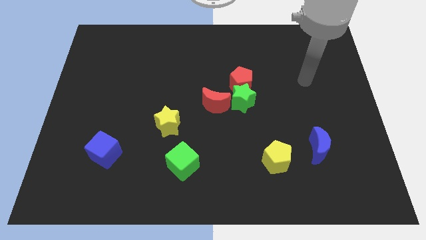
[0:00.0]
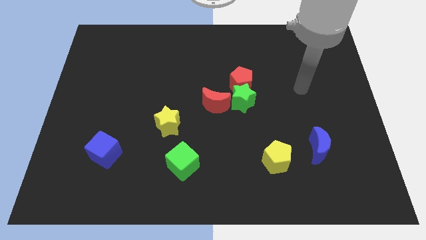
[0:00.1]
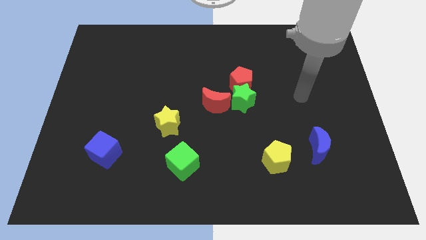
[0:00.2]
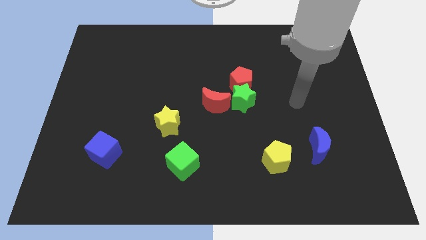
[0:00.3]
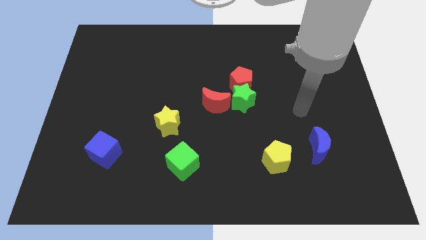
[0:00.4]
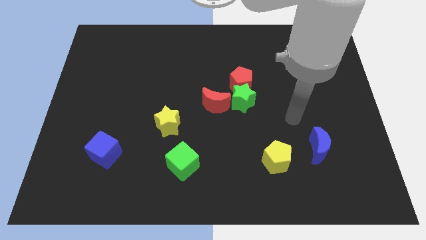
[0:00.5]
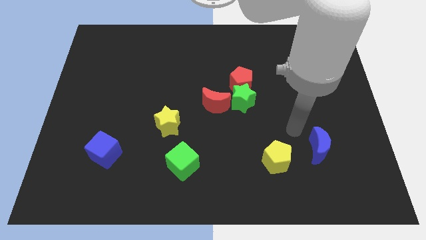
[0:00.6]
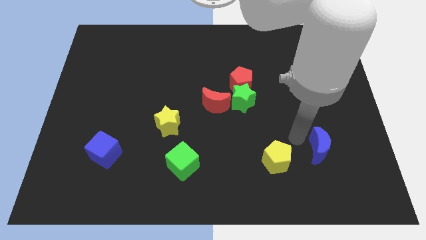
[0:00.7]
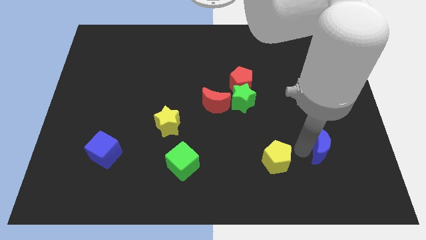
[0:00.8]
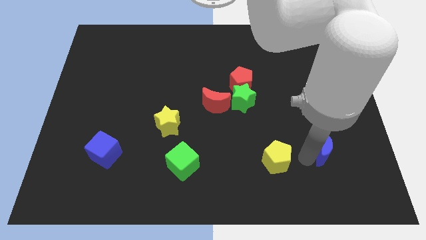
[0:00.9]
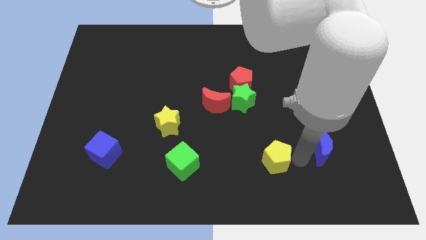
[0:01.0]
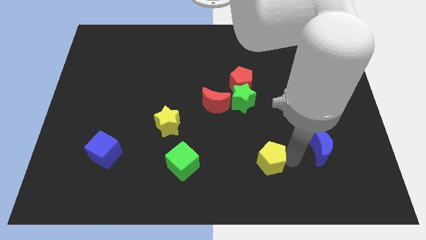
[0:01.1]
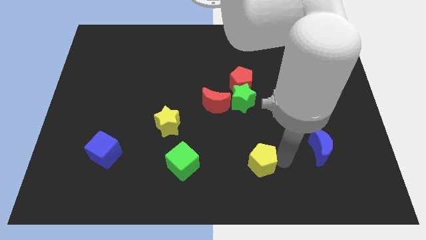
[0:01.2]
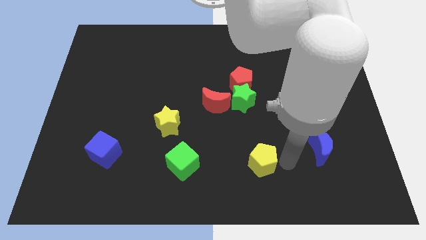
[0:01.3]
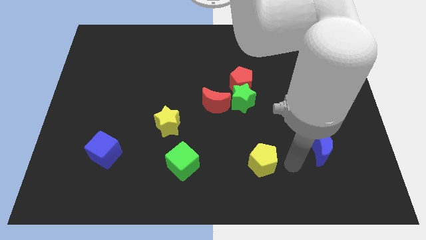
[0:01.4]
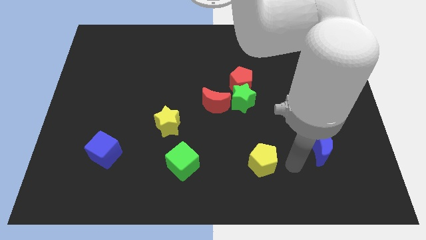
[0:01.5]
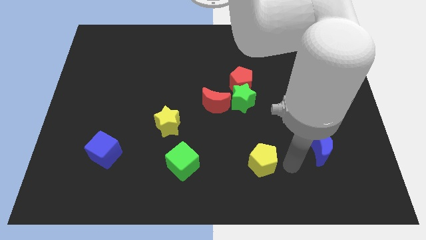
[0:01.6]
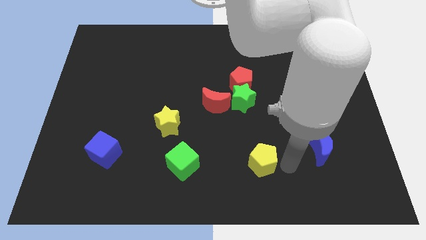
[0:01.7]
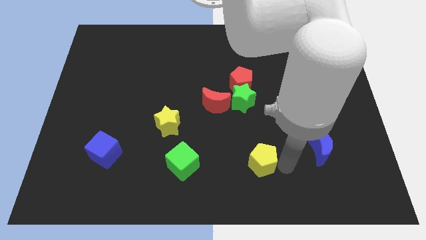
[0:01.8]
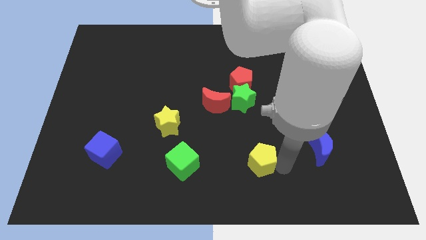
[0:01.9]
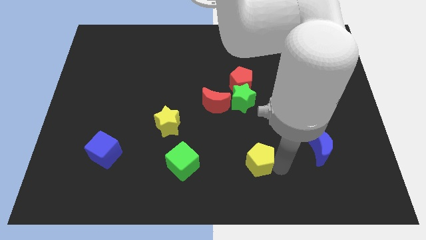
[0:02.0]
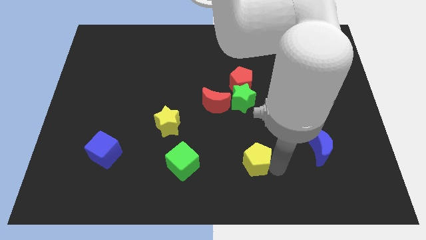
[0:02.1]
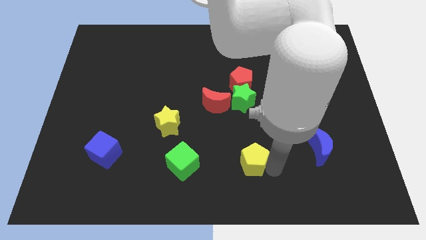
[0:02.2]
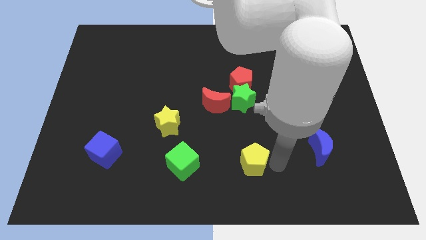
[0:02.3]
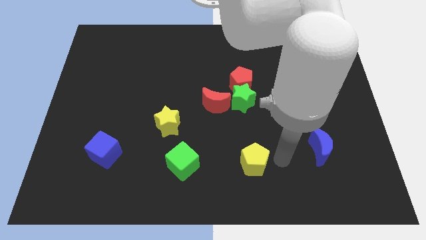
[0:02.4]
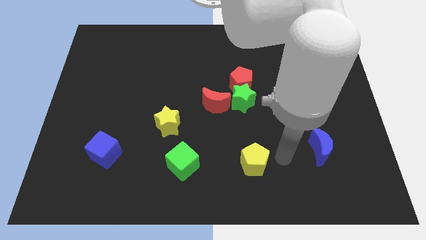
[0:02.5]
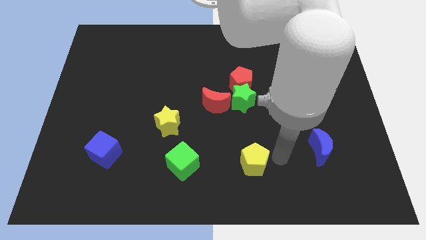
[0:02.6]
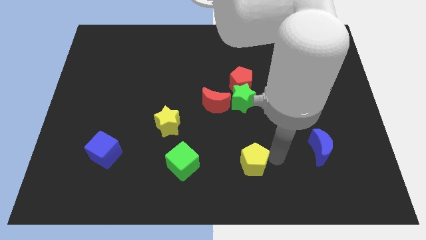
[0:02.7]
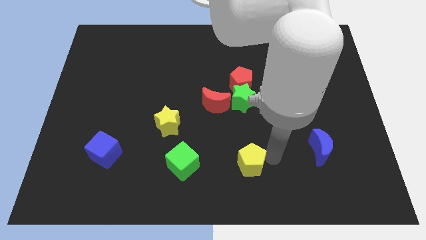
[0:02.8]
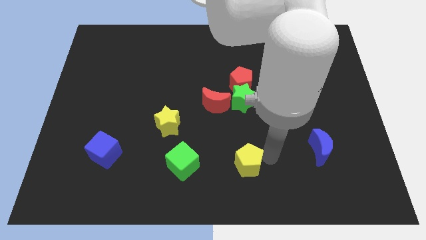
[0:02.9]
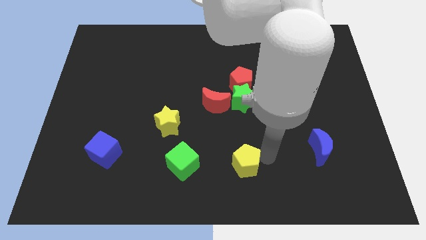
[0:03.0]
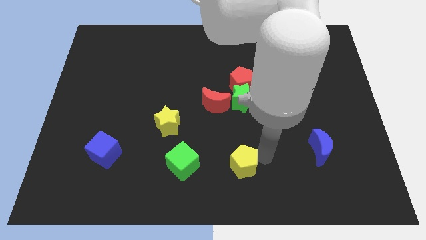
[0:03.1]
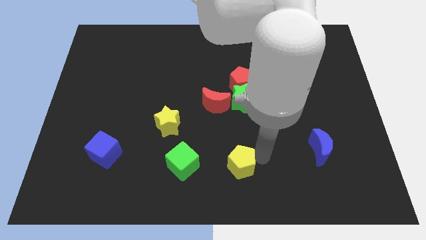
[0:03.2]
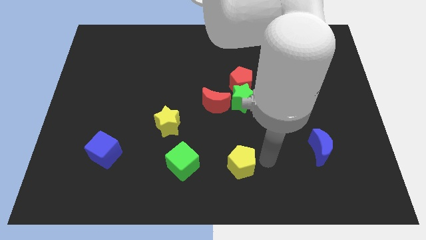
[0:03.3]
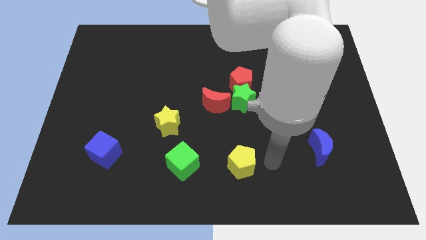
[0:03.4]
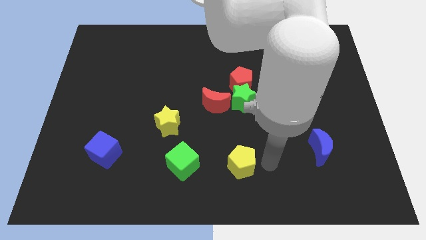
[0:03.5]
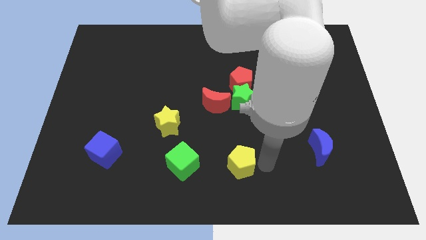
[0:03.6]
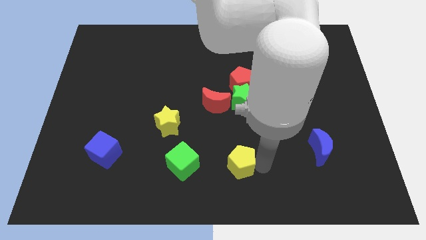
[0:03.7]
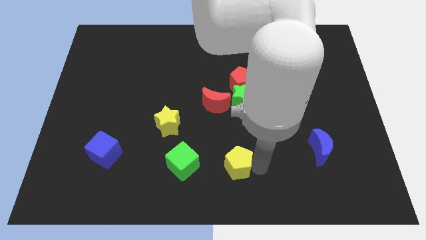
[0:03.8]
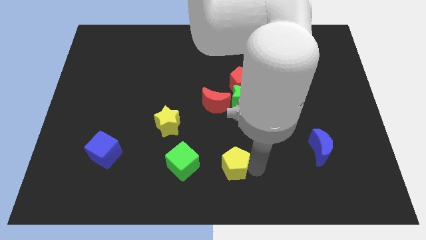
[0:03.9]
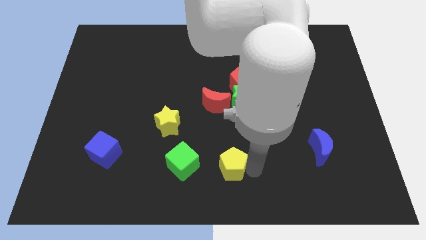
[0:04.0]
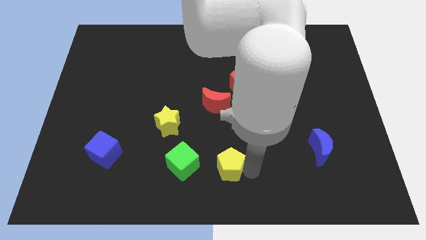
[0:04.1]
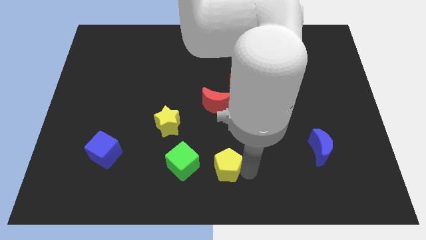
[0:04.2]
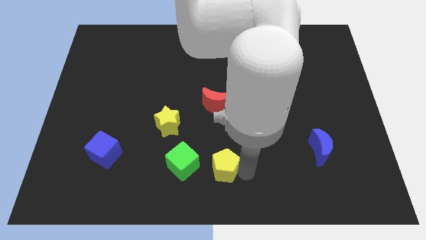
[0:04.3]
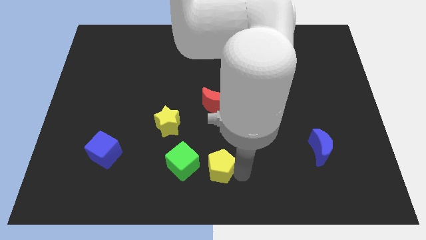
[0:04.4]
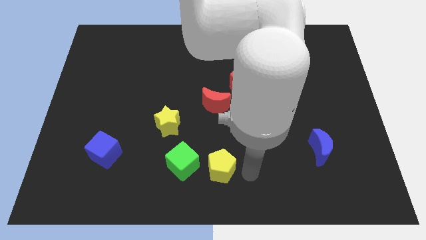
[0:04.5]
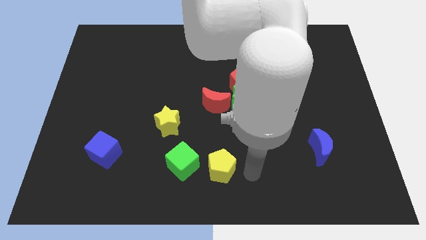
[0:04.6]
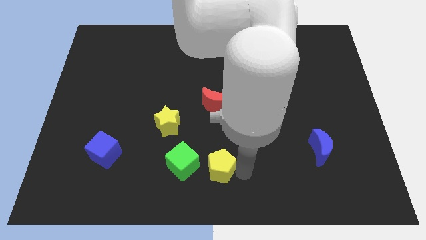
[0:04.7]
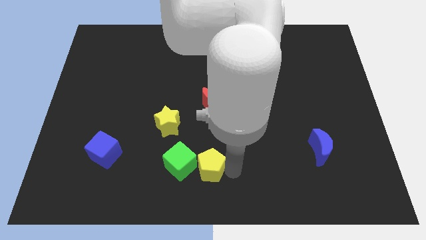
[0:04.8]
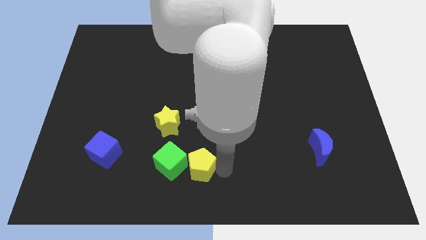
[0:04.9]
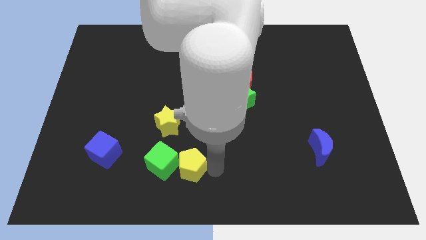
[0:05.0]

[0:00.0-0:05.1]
put the yellow pentagon next to the green cube

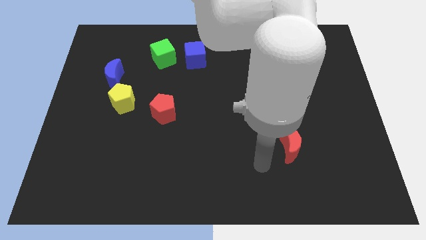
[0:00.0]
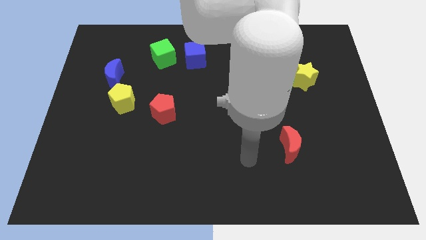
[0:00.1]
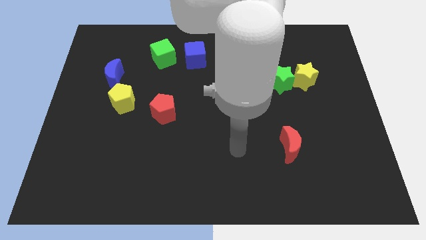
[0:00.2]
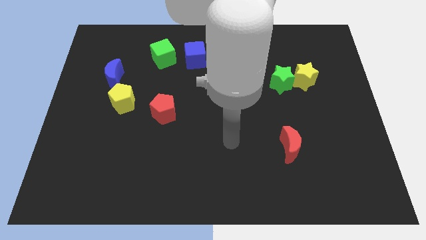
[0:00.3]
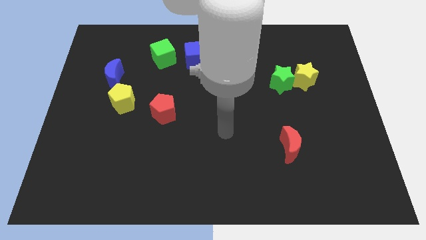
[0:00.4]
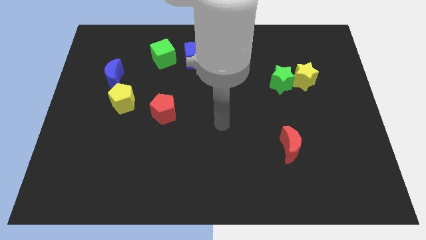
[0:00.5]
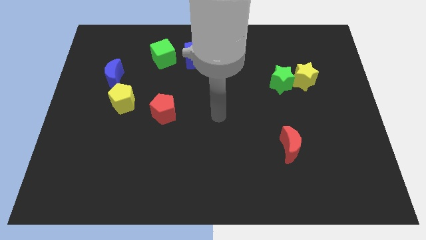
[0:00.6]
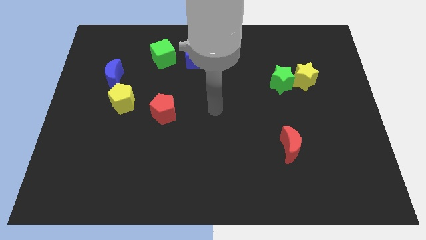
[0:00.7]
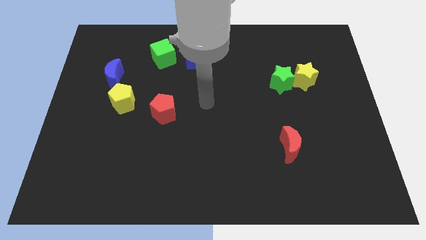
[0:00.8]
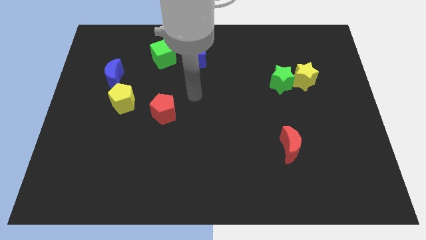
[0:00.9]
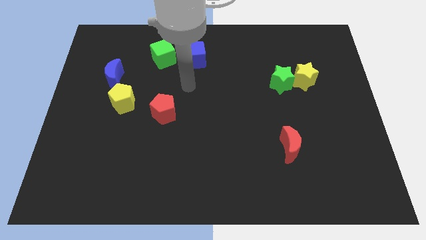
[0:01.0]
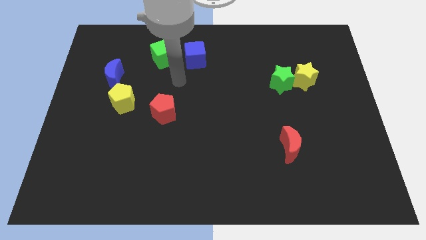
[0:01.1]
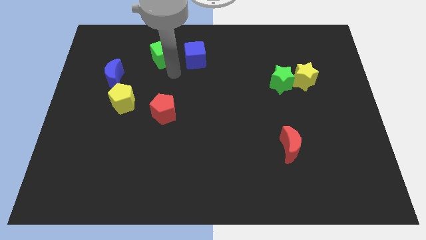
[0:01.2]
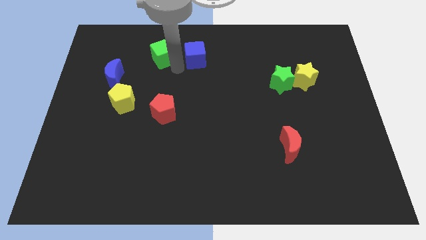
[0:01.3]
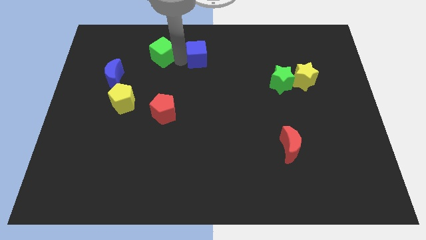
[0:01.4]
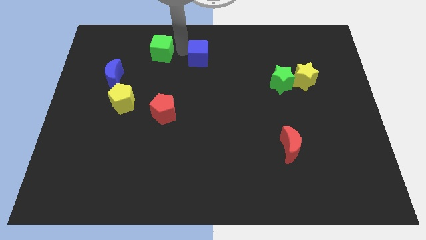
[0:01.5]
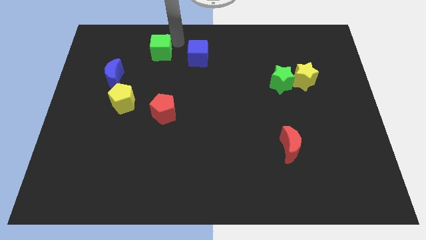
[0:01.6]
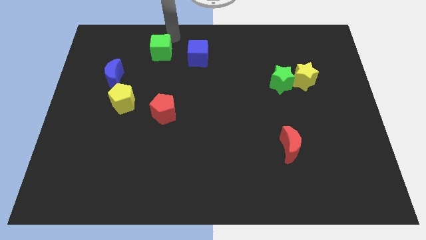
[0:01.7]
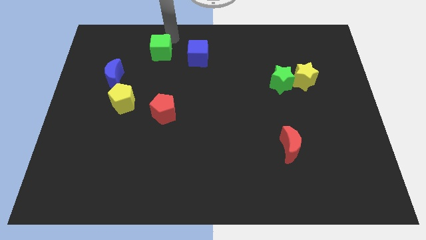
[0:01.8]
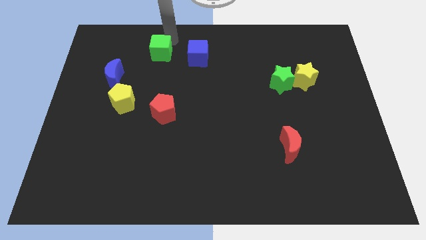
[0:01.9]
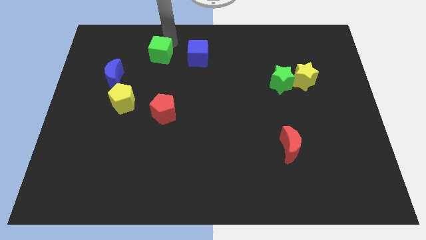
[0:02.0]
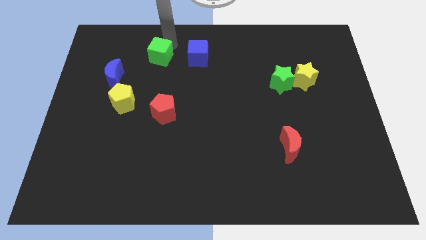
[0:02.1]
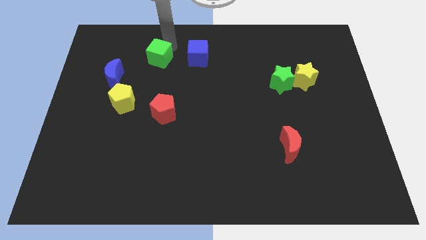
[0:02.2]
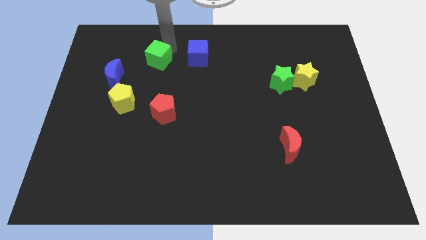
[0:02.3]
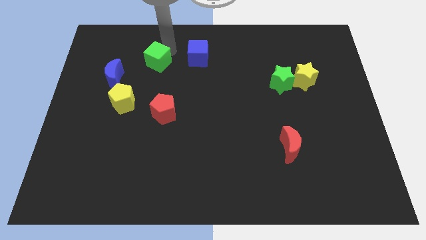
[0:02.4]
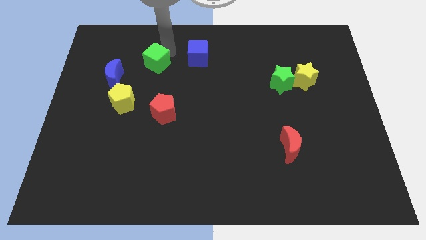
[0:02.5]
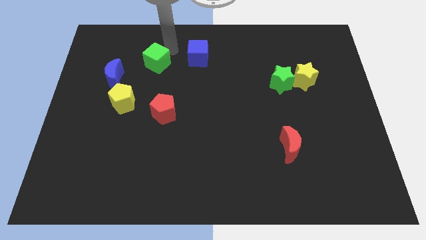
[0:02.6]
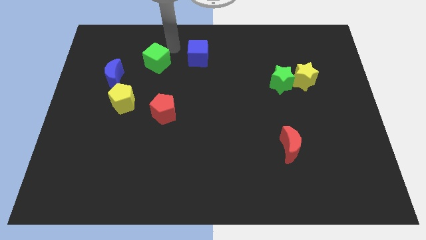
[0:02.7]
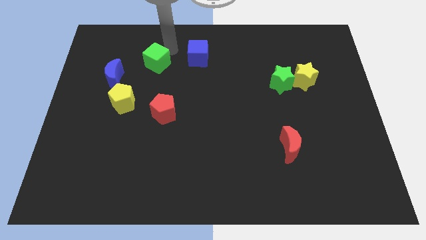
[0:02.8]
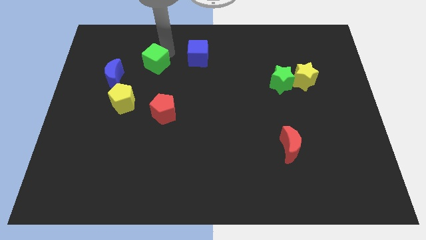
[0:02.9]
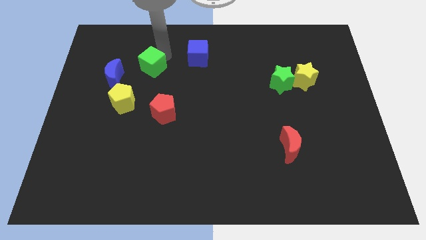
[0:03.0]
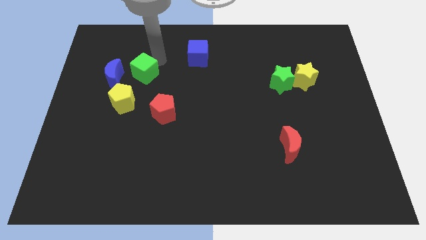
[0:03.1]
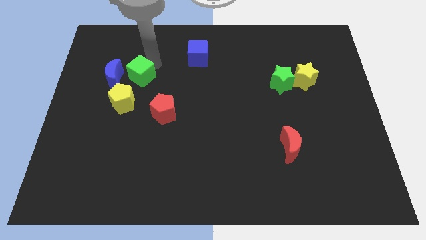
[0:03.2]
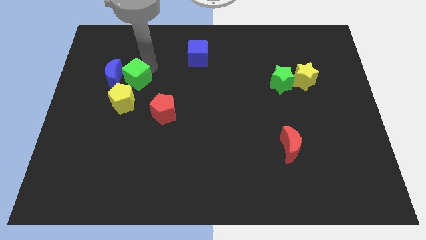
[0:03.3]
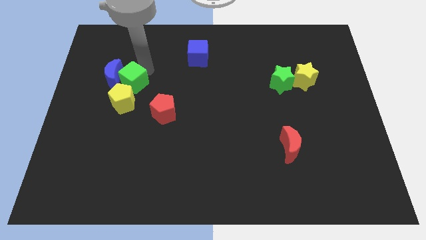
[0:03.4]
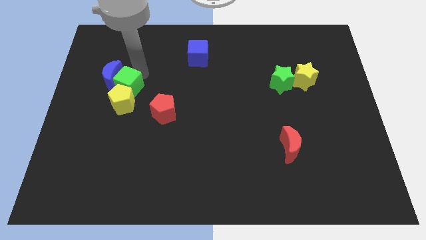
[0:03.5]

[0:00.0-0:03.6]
put the green cube towards the yellow pentagon
